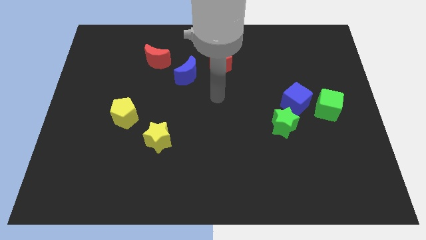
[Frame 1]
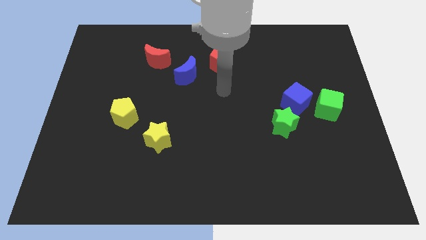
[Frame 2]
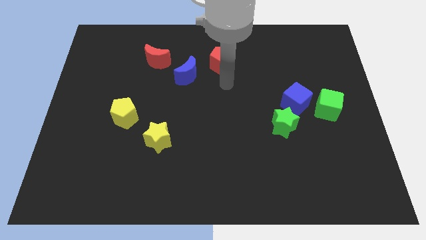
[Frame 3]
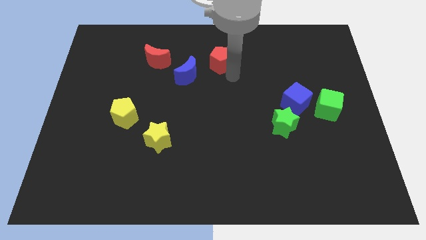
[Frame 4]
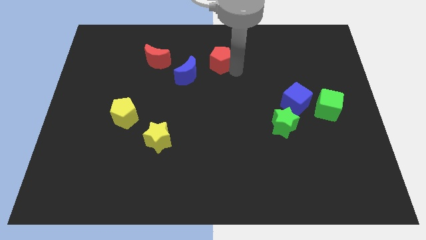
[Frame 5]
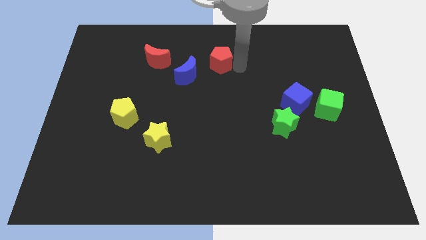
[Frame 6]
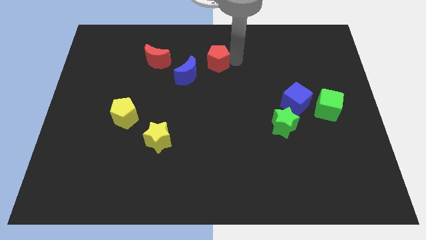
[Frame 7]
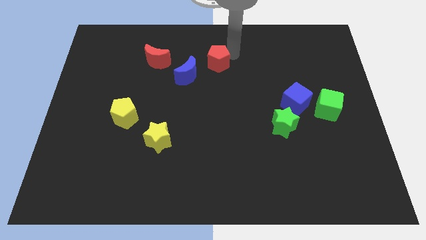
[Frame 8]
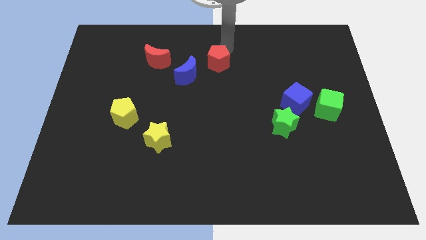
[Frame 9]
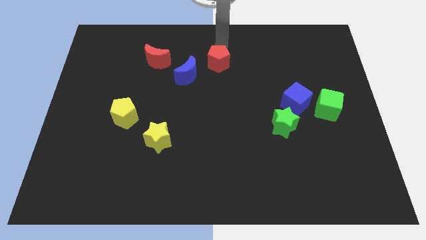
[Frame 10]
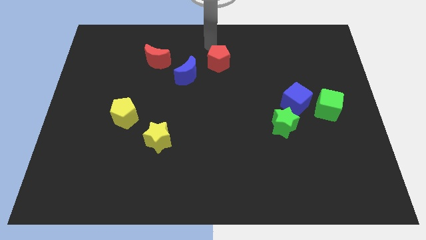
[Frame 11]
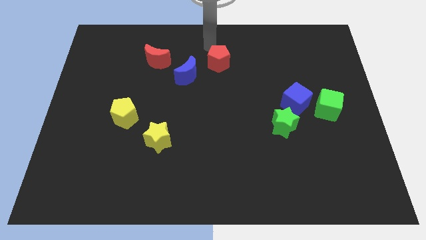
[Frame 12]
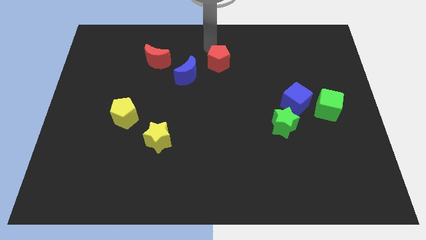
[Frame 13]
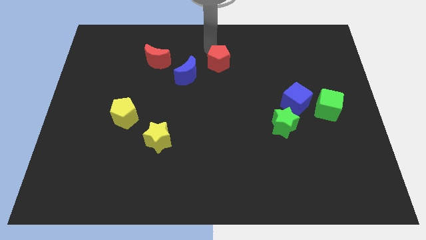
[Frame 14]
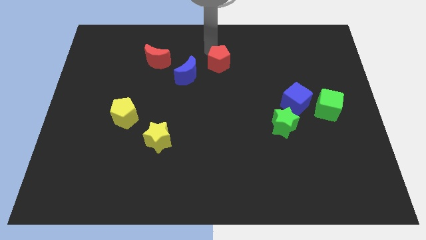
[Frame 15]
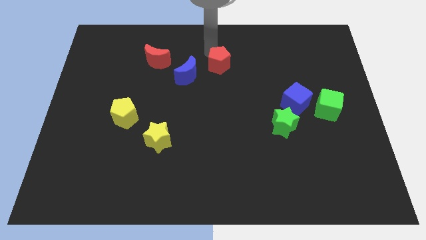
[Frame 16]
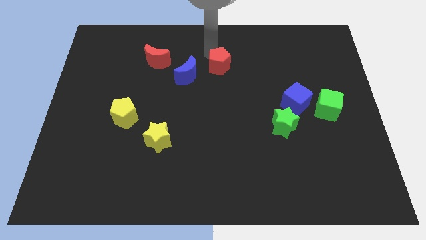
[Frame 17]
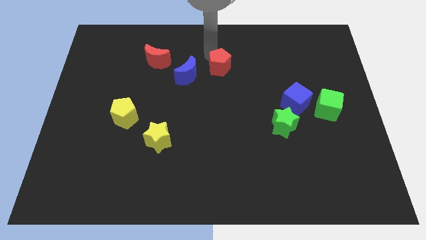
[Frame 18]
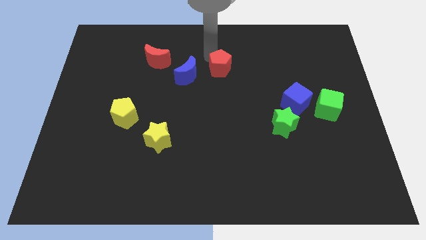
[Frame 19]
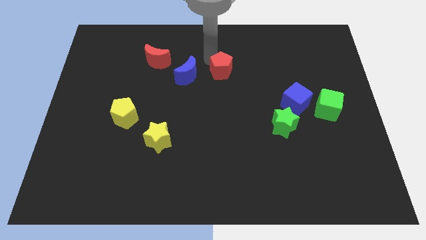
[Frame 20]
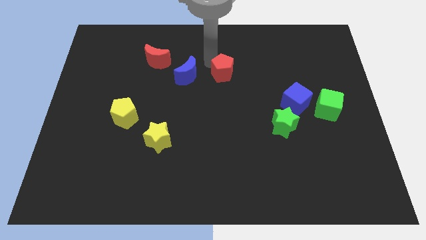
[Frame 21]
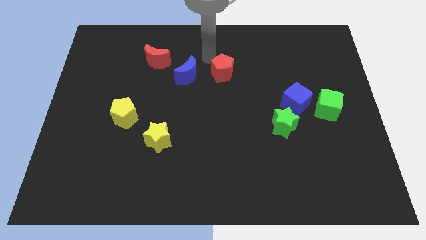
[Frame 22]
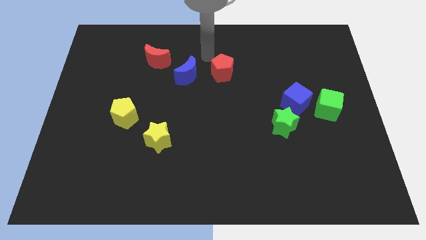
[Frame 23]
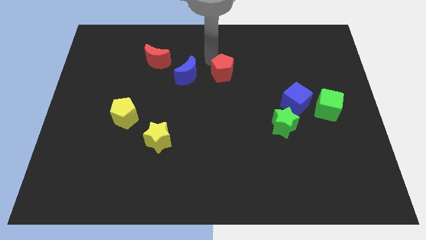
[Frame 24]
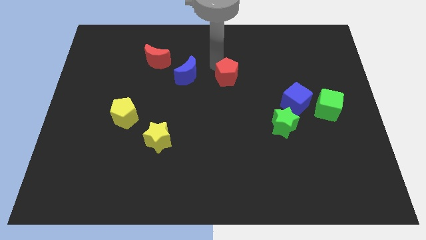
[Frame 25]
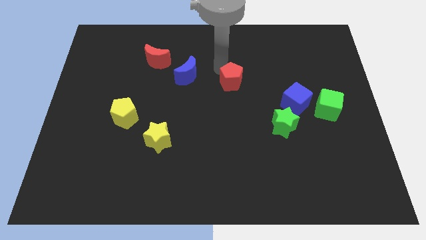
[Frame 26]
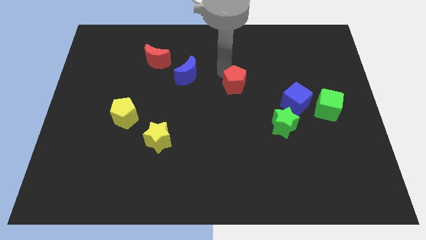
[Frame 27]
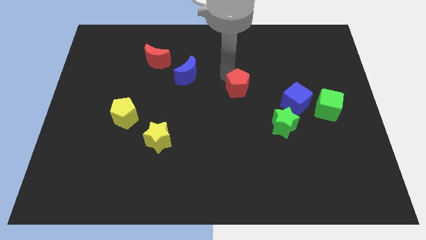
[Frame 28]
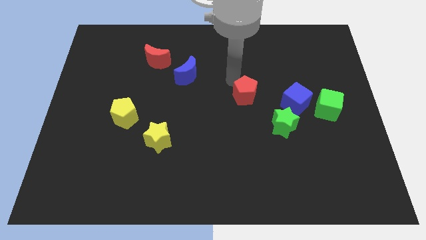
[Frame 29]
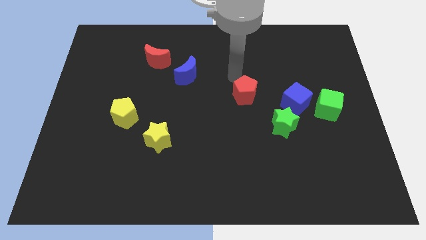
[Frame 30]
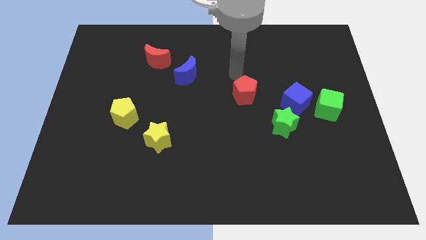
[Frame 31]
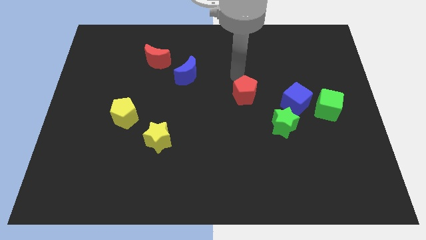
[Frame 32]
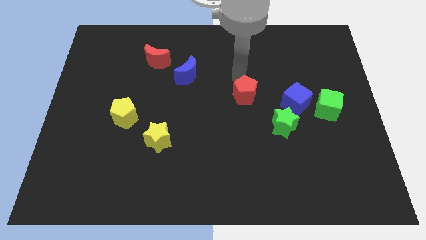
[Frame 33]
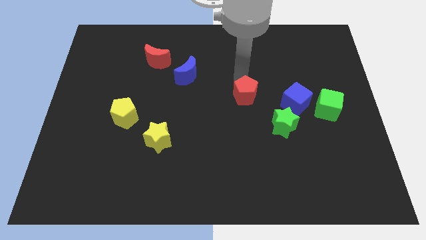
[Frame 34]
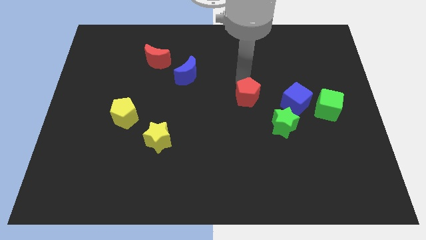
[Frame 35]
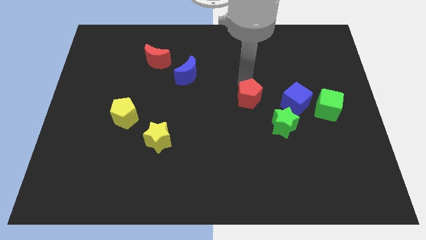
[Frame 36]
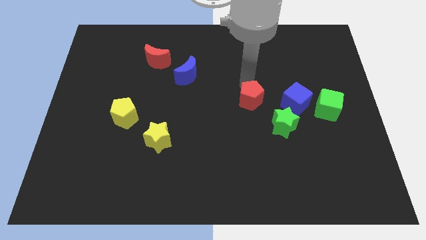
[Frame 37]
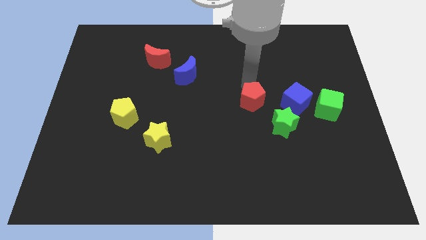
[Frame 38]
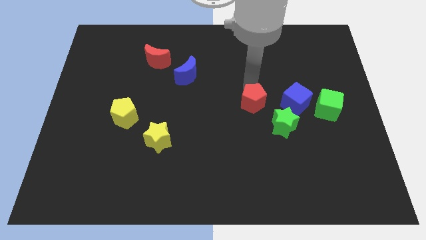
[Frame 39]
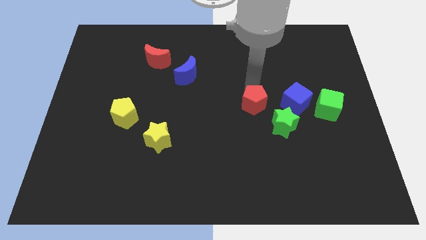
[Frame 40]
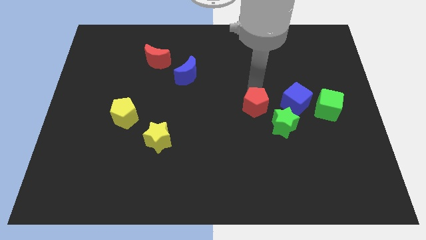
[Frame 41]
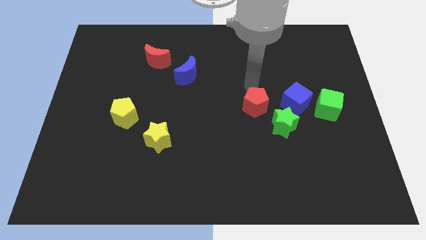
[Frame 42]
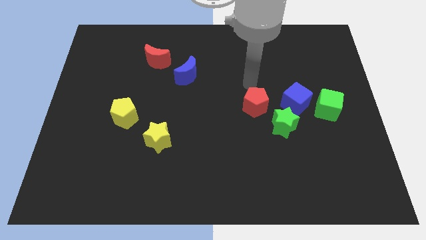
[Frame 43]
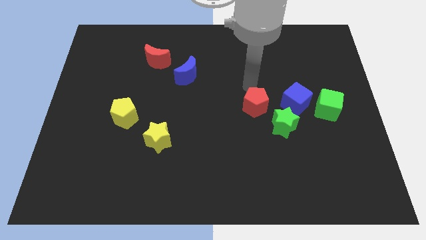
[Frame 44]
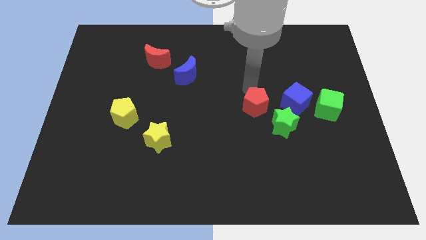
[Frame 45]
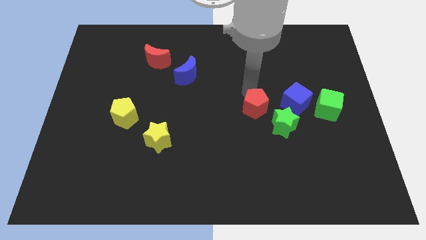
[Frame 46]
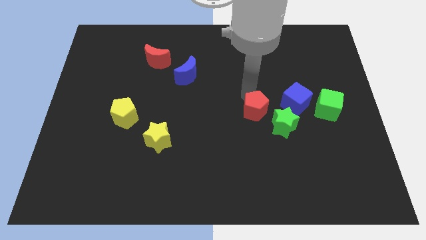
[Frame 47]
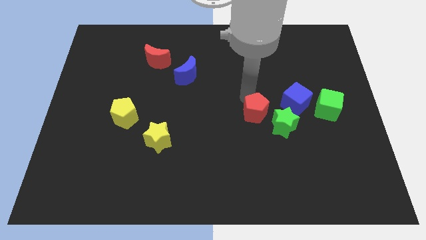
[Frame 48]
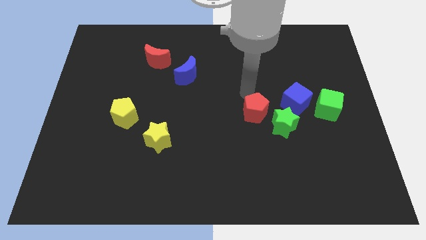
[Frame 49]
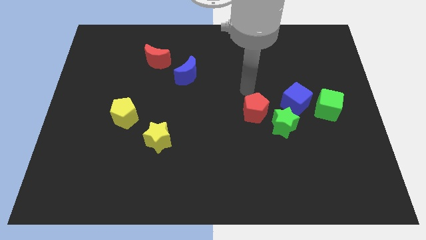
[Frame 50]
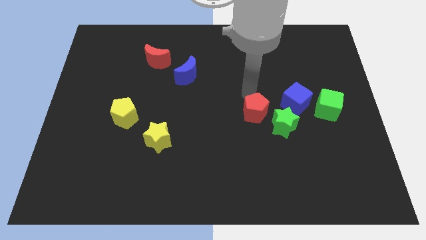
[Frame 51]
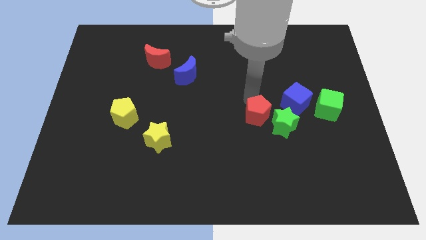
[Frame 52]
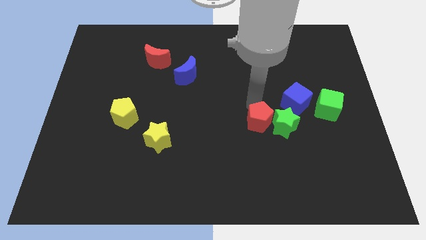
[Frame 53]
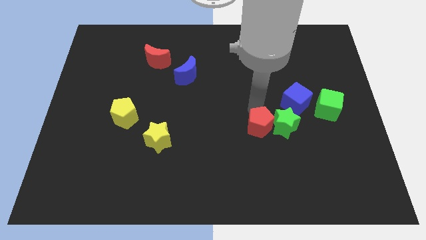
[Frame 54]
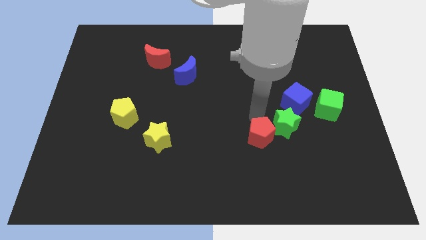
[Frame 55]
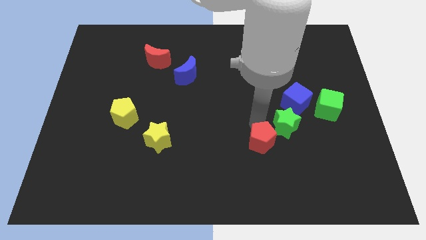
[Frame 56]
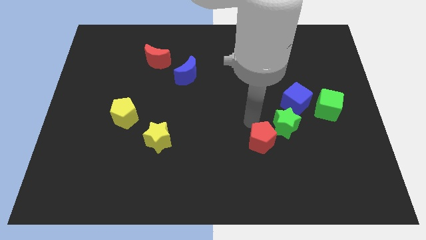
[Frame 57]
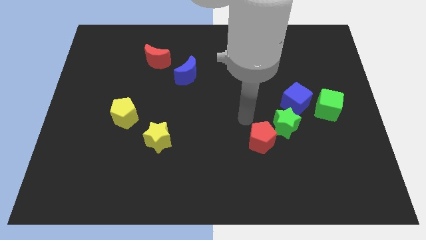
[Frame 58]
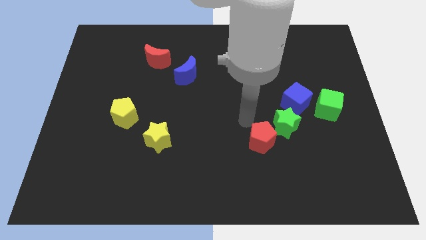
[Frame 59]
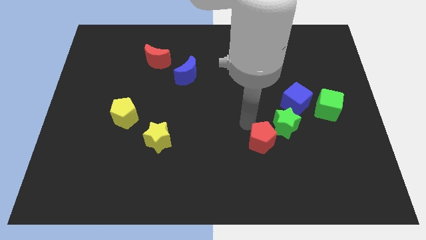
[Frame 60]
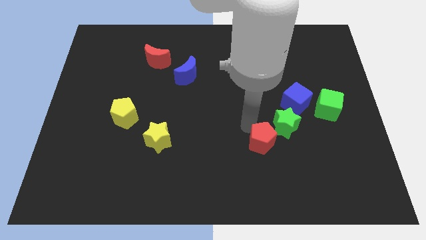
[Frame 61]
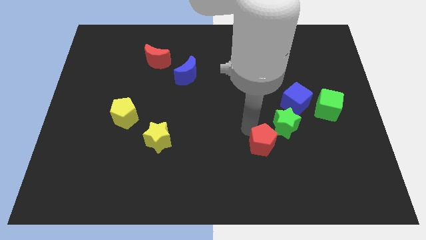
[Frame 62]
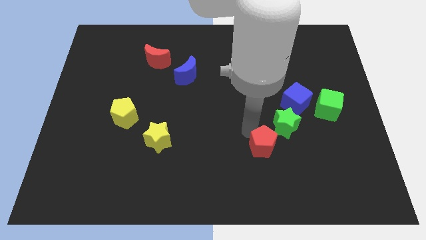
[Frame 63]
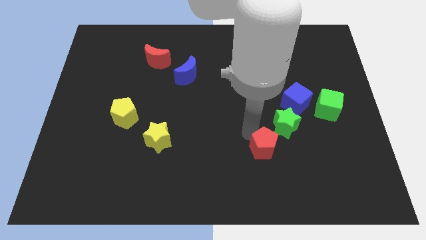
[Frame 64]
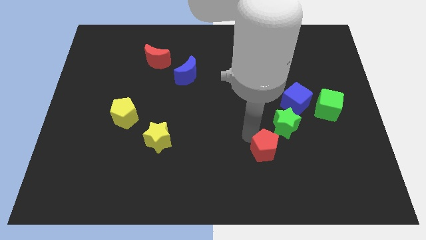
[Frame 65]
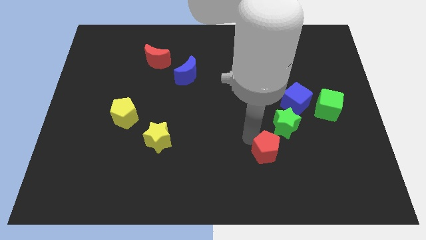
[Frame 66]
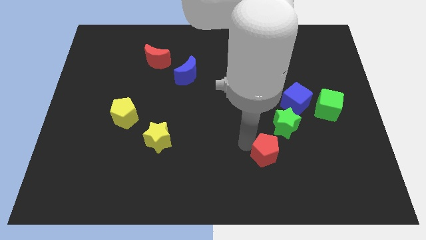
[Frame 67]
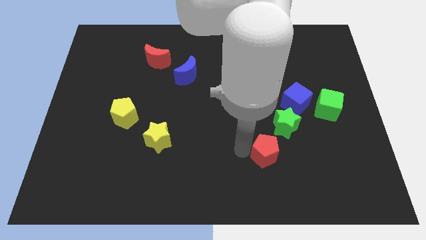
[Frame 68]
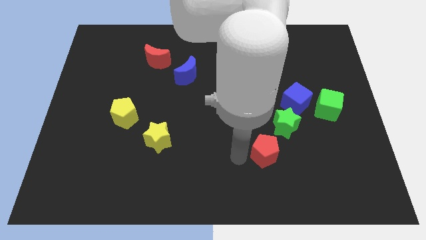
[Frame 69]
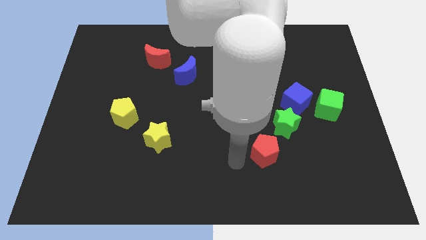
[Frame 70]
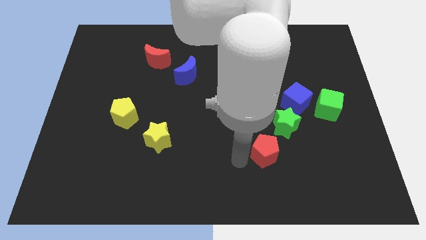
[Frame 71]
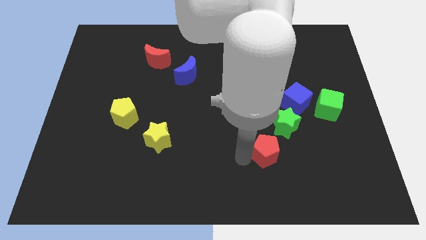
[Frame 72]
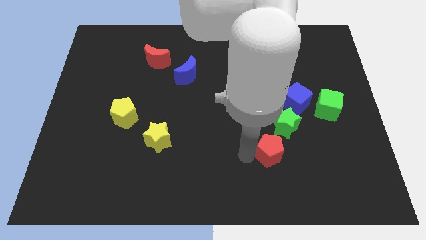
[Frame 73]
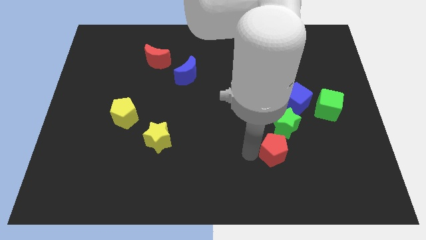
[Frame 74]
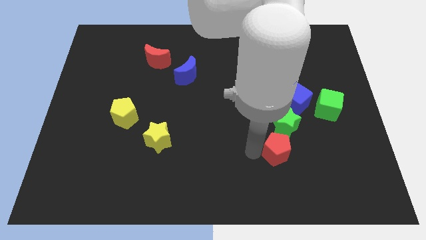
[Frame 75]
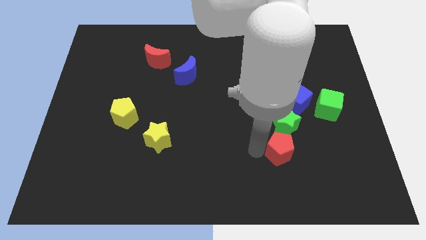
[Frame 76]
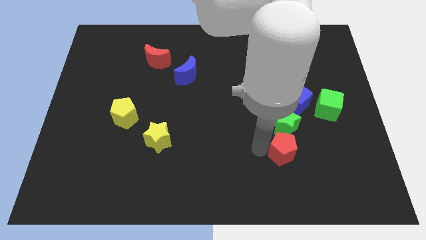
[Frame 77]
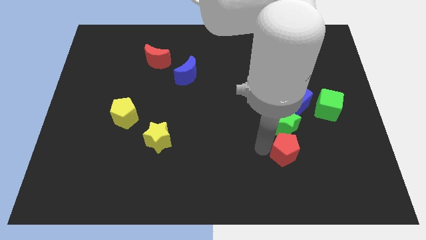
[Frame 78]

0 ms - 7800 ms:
slide the red pentagon below the blue cube

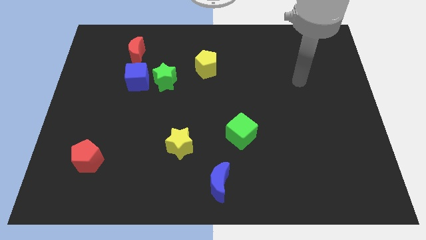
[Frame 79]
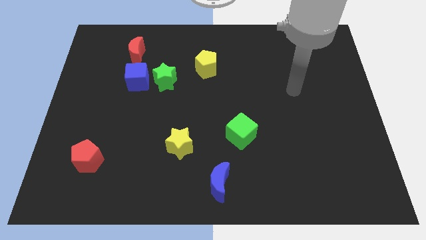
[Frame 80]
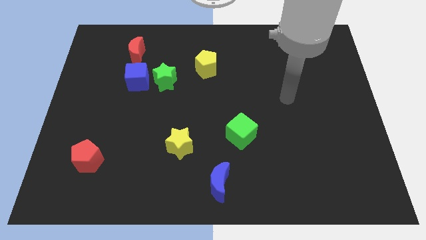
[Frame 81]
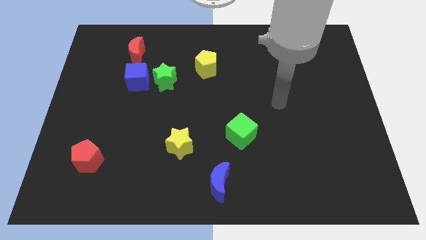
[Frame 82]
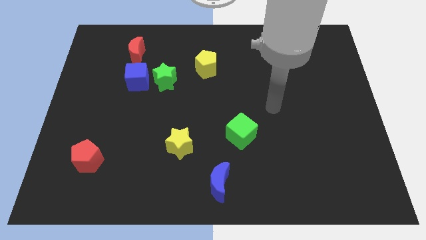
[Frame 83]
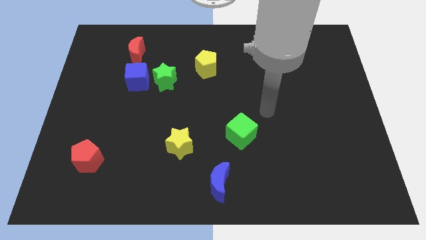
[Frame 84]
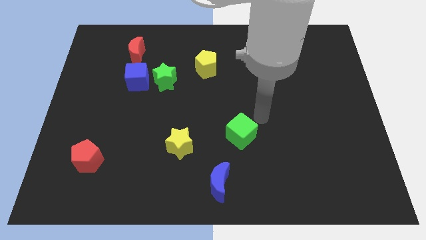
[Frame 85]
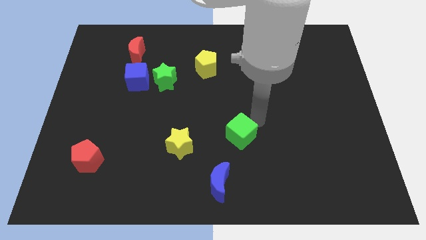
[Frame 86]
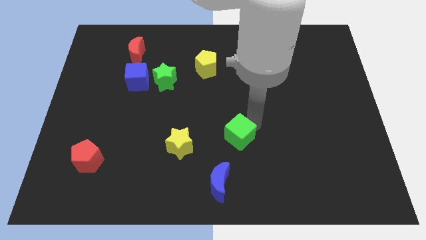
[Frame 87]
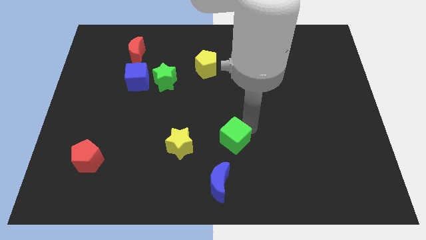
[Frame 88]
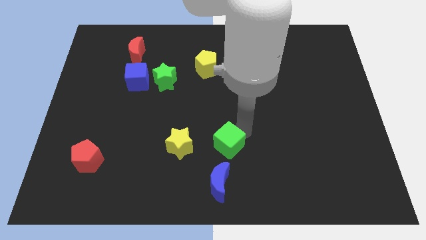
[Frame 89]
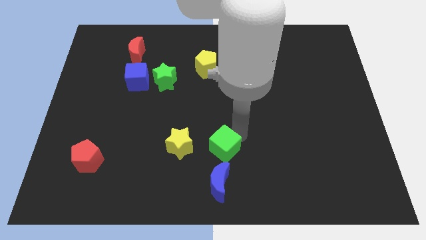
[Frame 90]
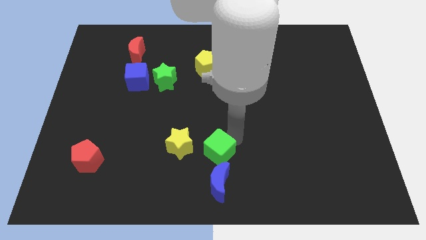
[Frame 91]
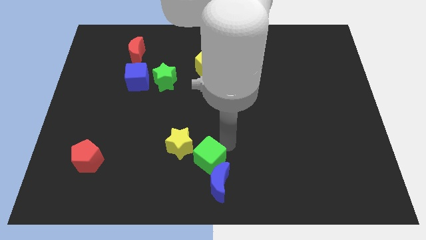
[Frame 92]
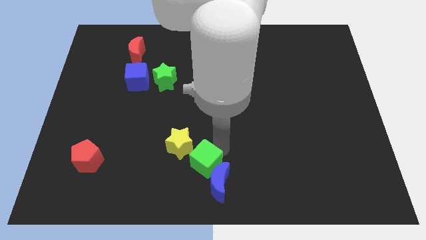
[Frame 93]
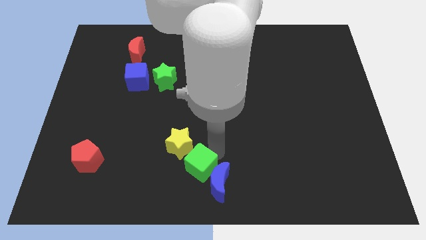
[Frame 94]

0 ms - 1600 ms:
move the green cube to the left side of the blue moon
